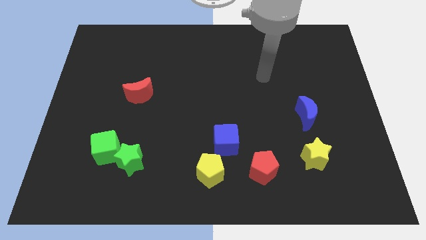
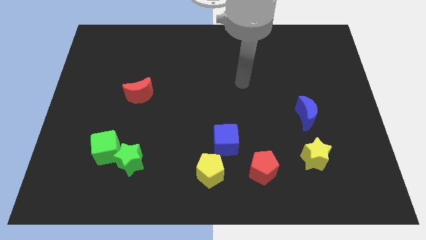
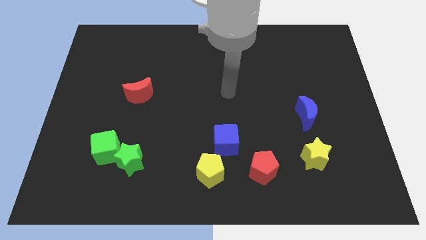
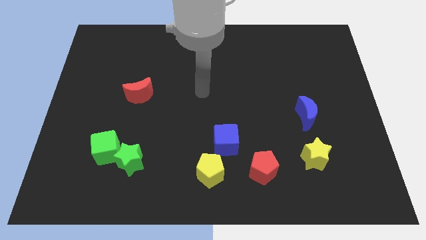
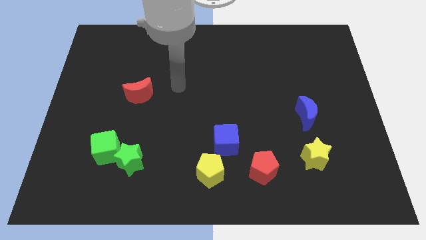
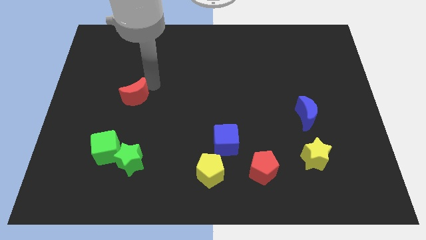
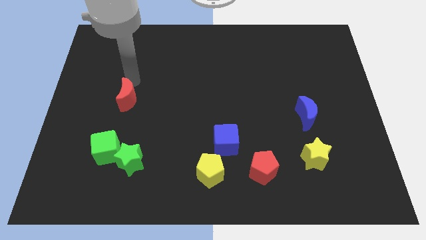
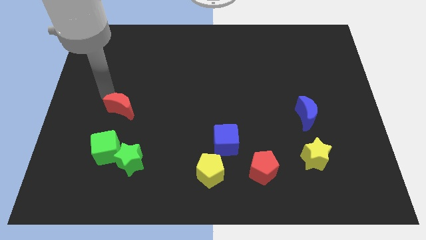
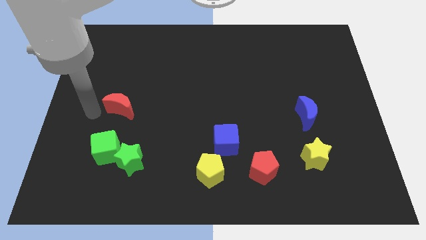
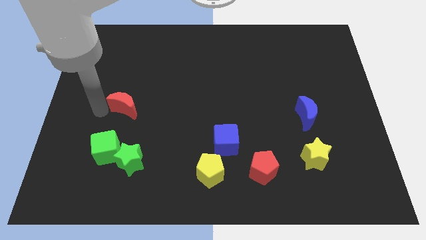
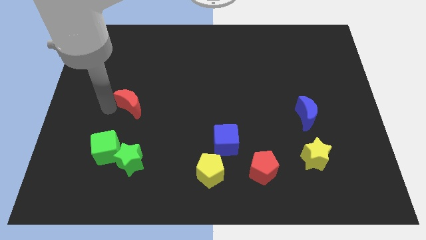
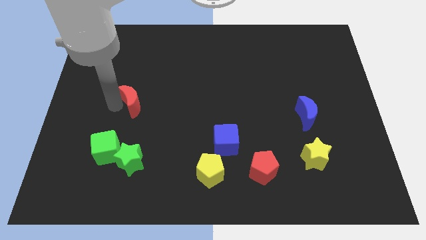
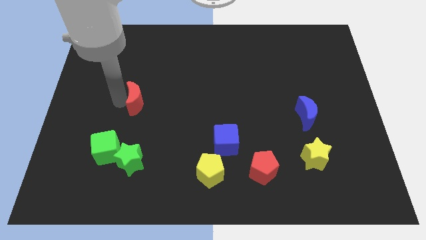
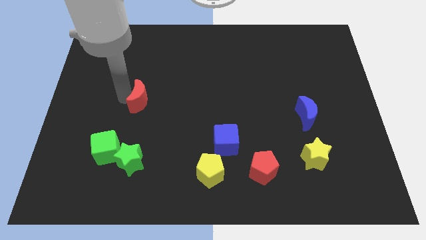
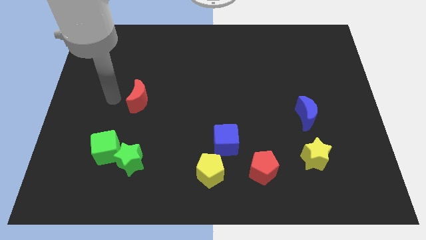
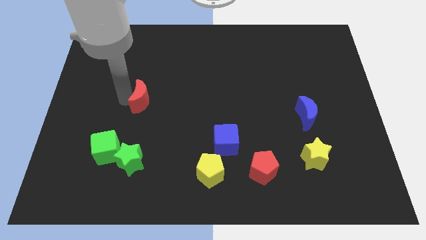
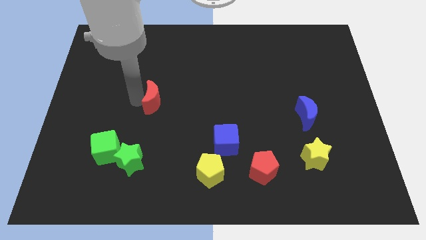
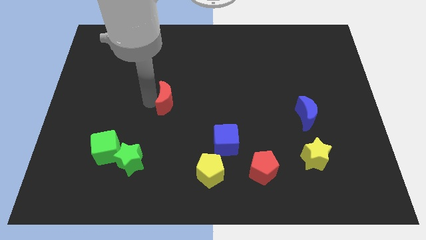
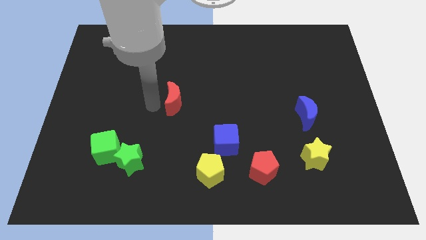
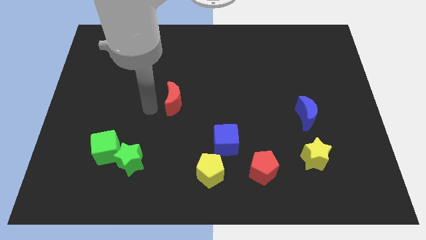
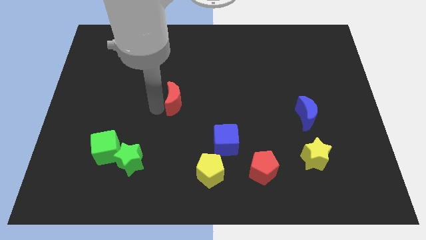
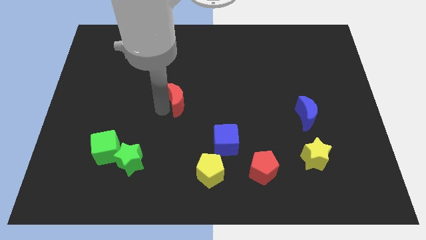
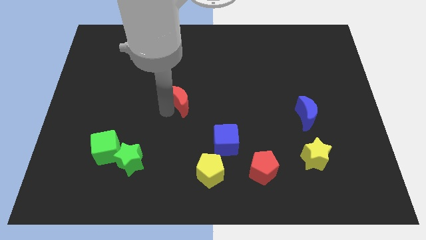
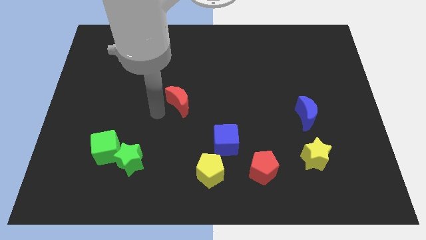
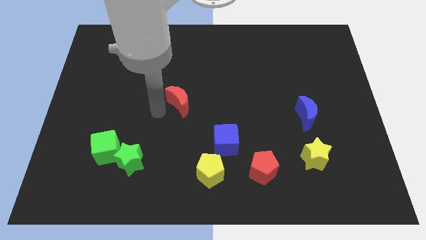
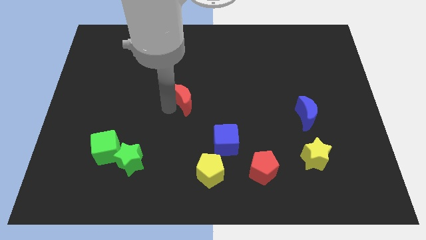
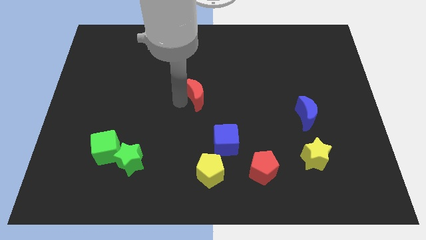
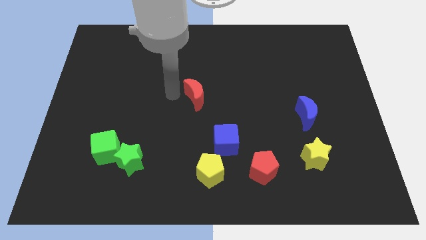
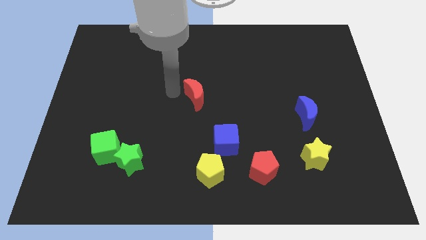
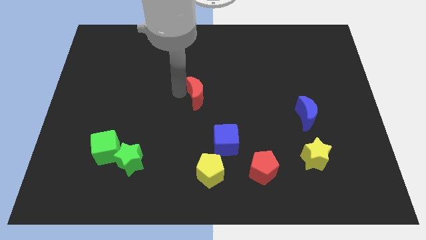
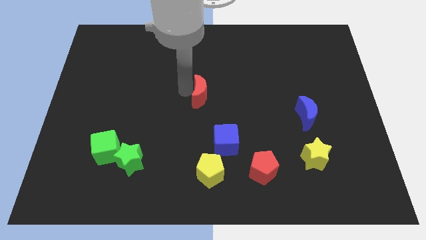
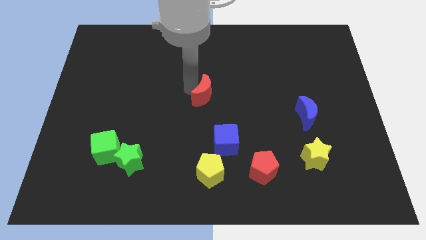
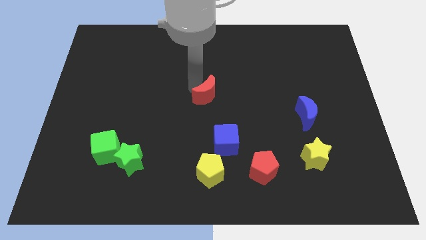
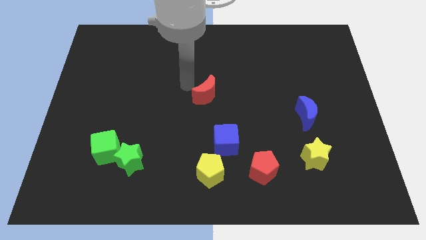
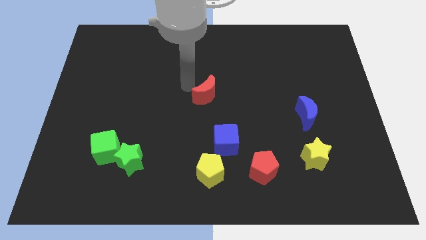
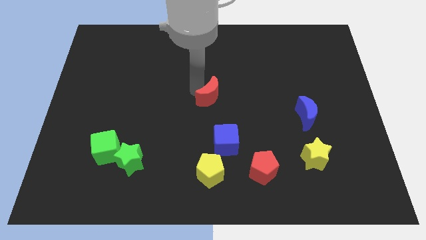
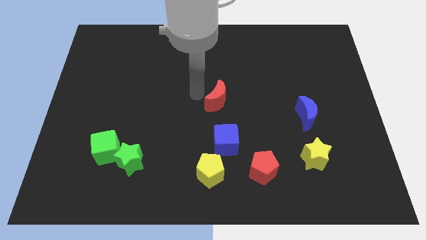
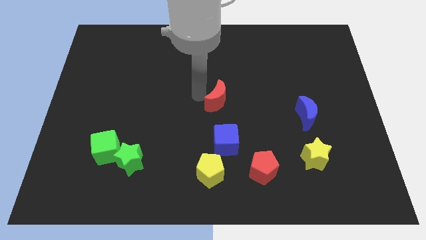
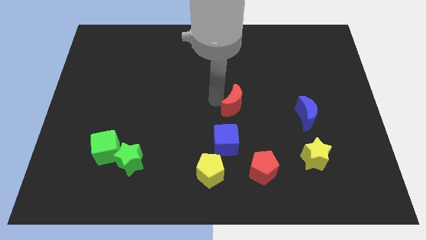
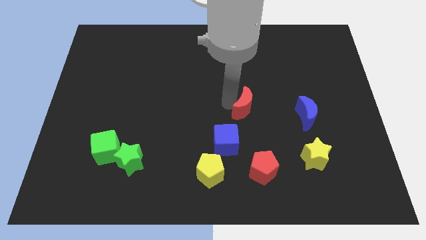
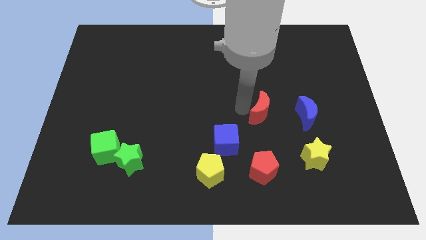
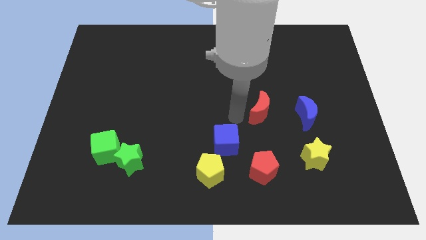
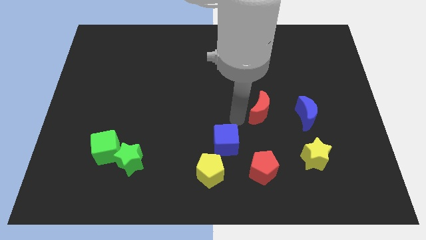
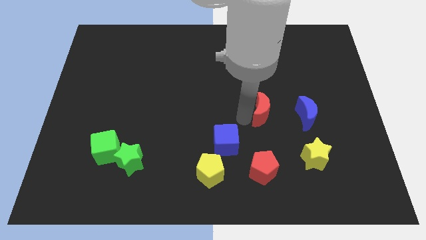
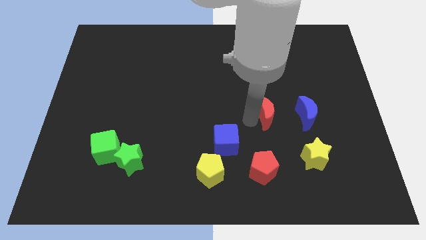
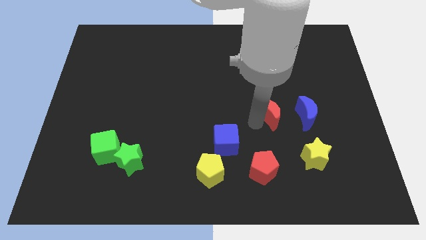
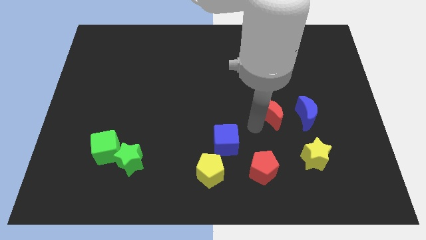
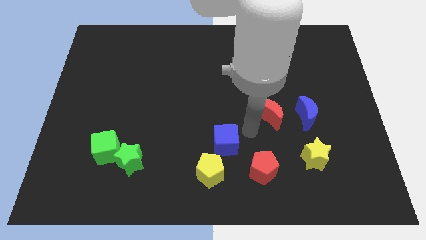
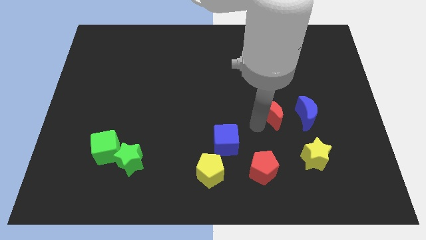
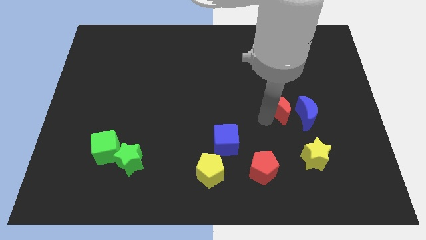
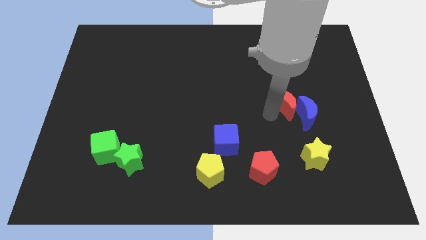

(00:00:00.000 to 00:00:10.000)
push the red moon to the top of the yellow star

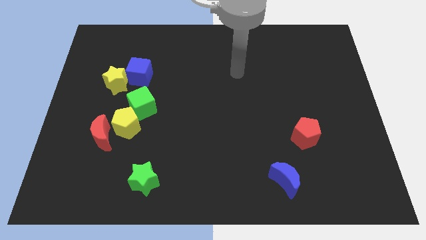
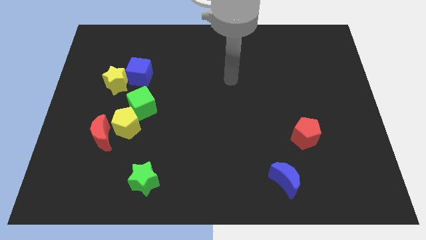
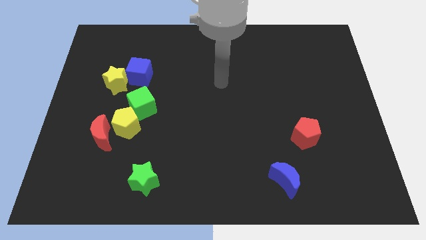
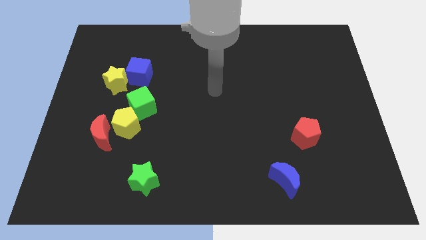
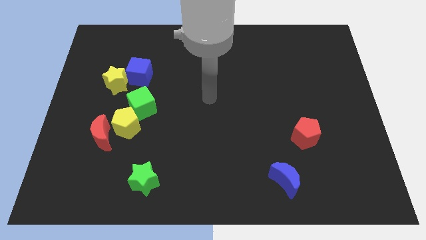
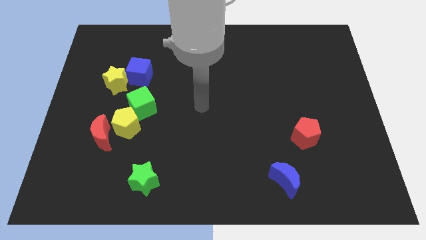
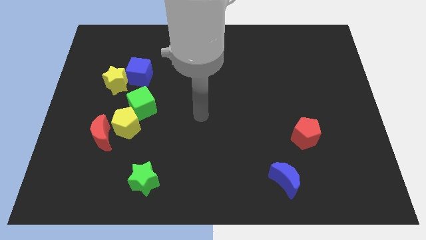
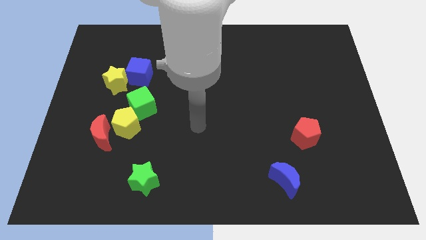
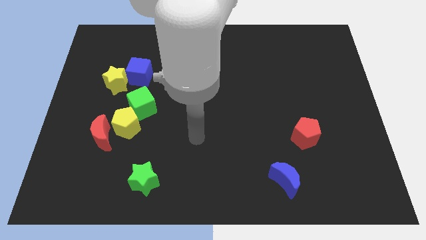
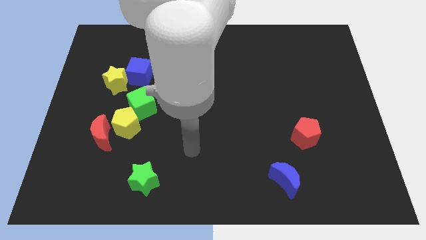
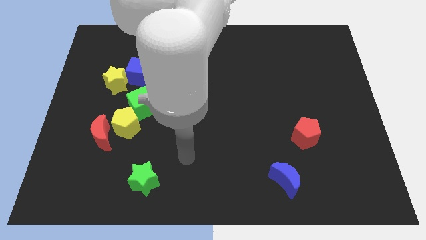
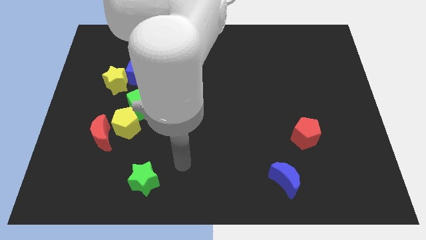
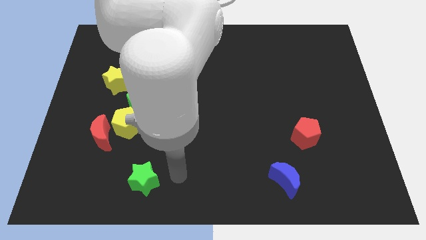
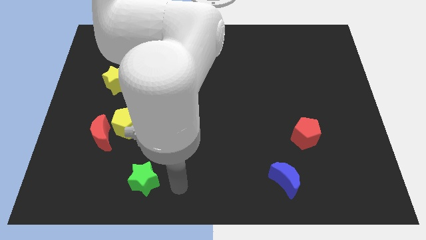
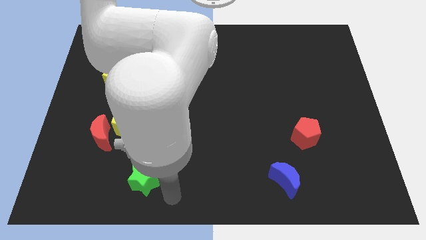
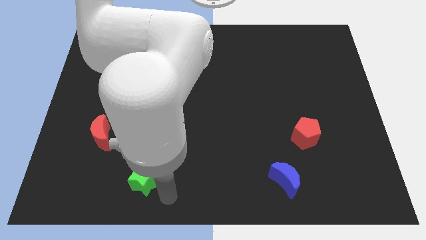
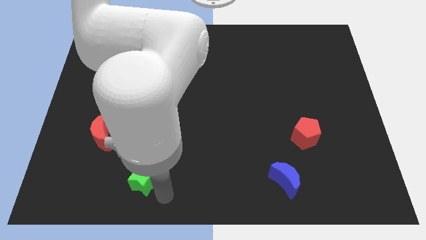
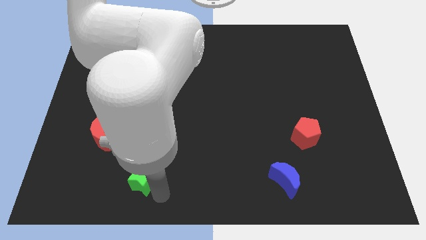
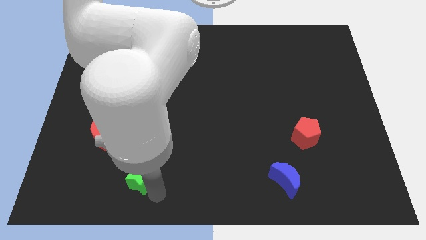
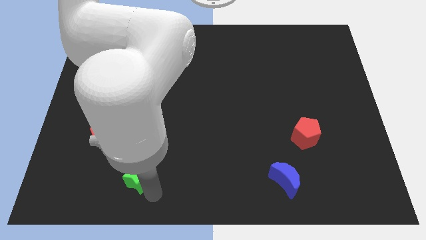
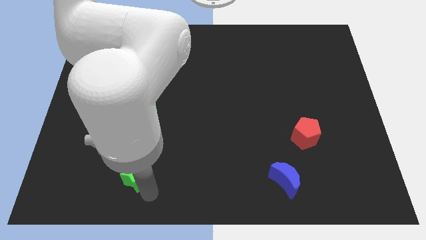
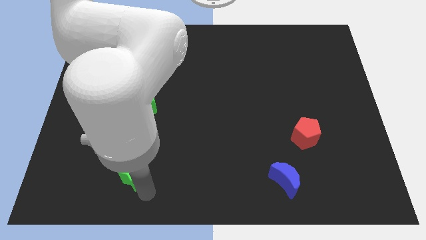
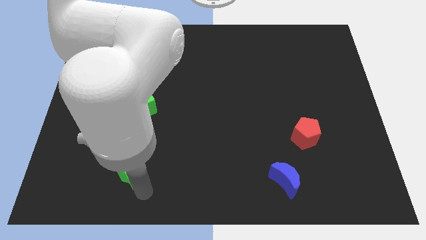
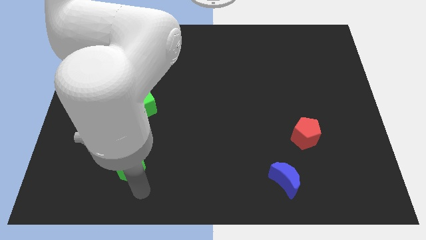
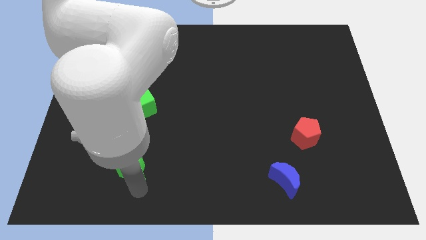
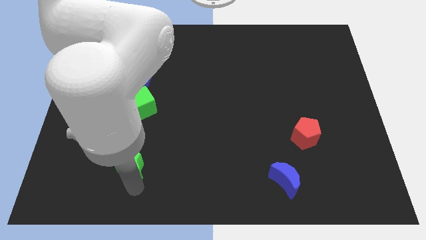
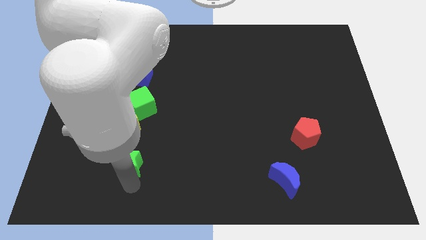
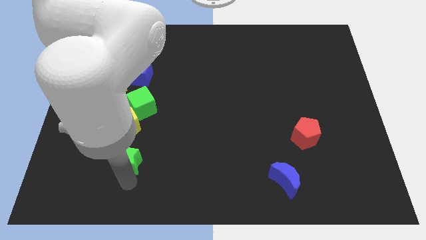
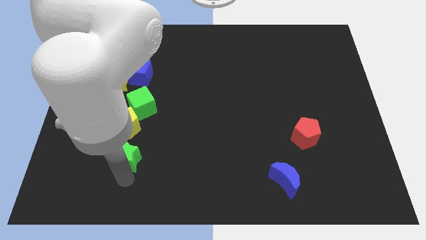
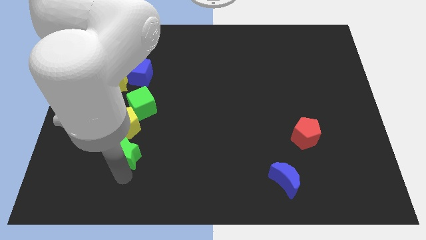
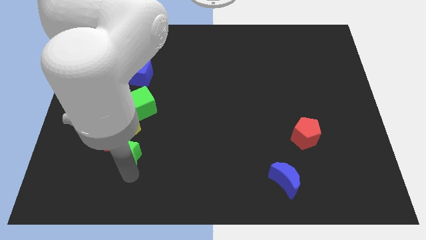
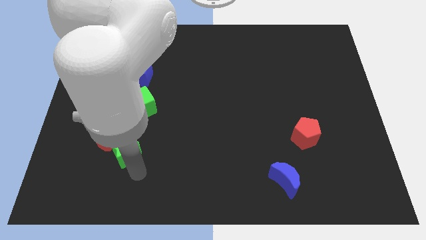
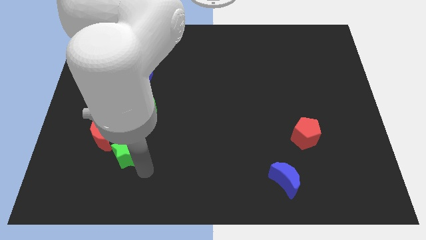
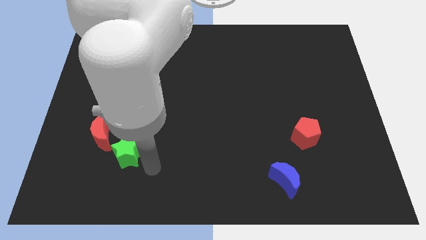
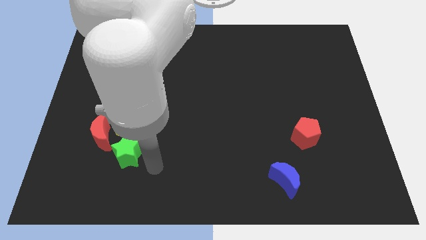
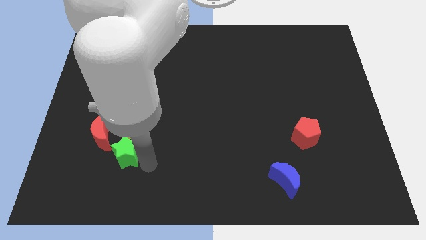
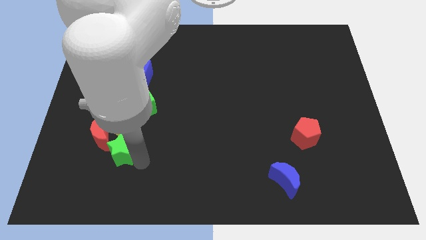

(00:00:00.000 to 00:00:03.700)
push the green star to the bottom left side of the yellow pentagon
